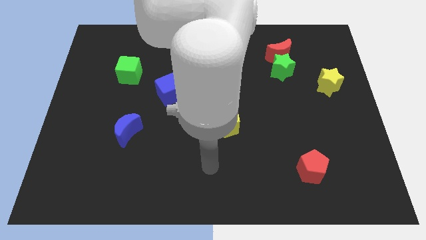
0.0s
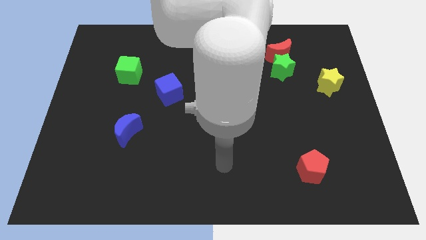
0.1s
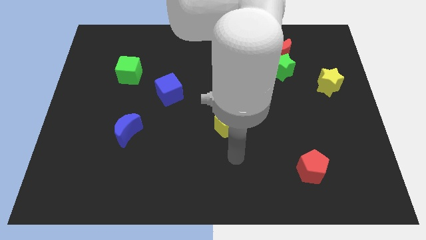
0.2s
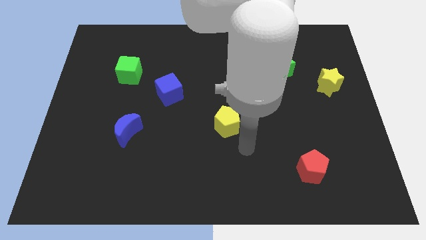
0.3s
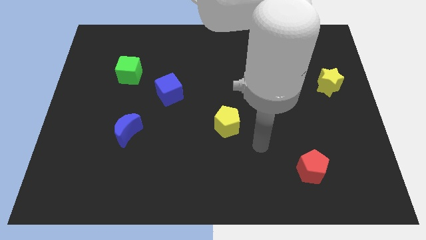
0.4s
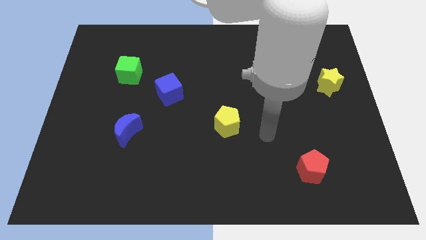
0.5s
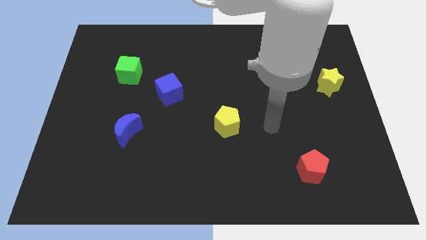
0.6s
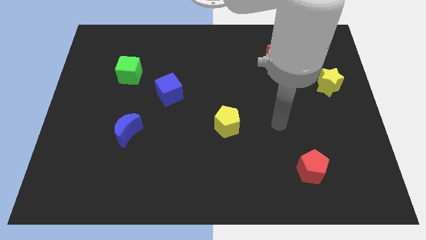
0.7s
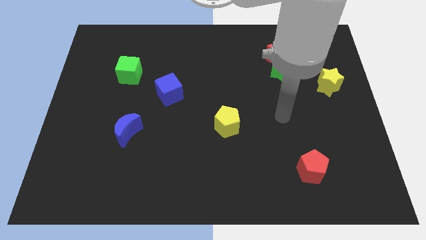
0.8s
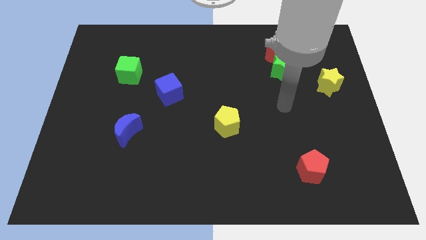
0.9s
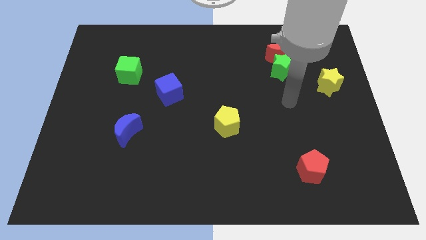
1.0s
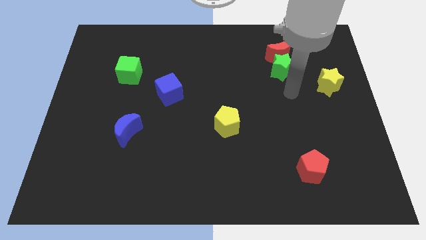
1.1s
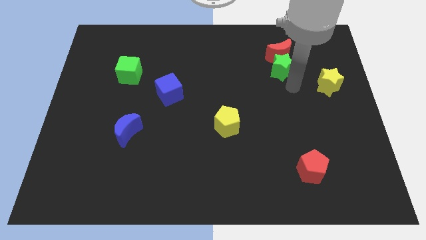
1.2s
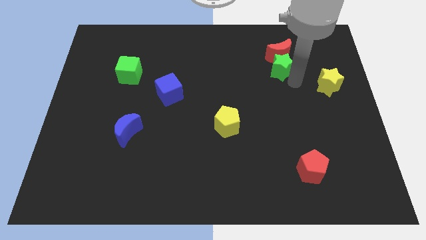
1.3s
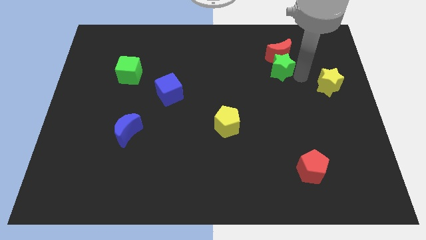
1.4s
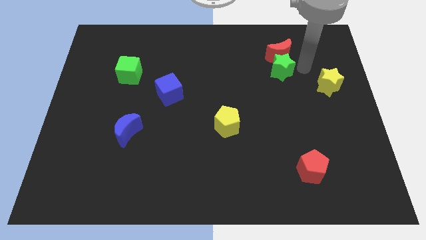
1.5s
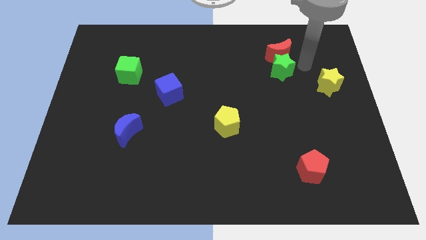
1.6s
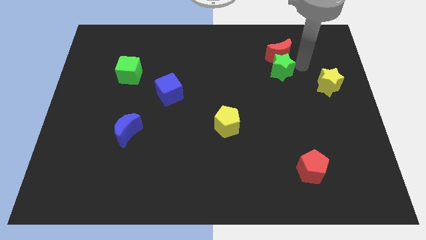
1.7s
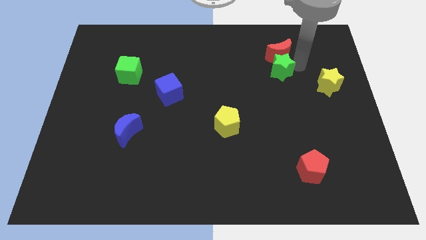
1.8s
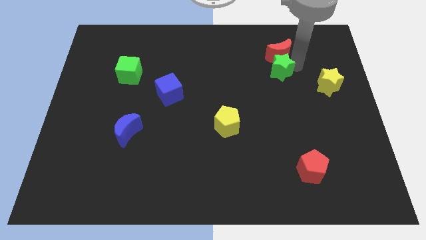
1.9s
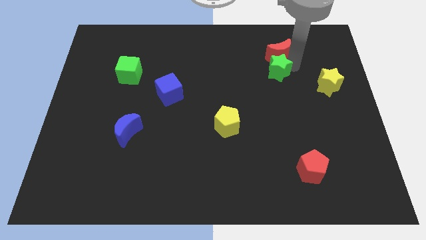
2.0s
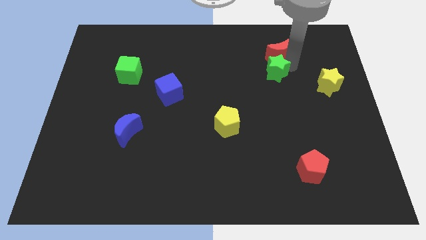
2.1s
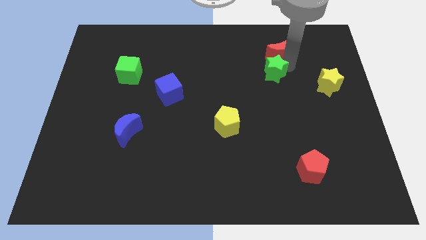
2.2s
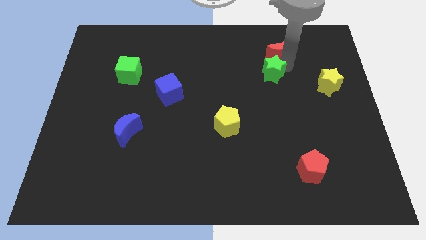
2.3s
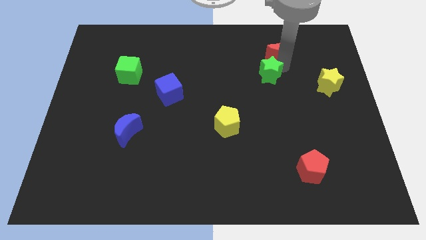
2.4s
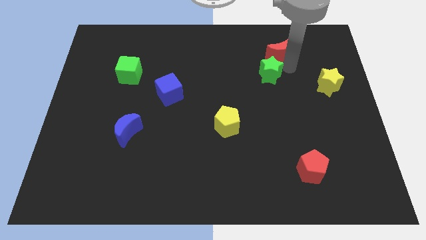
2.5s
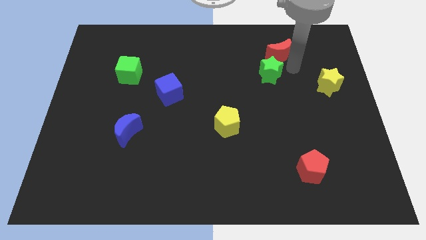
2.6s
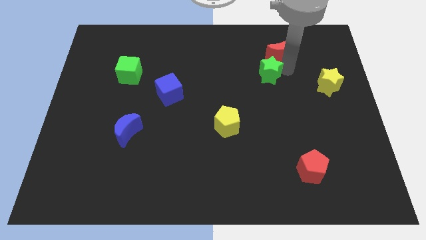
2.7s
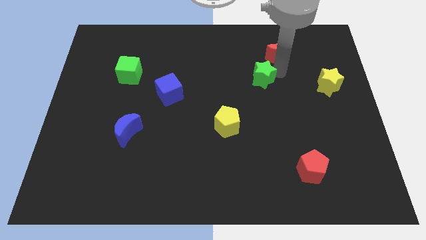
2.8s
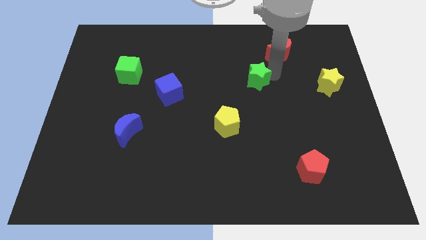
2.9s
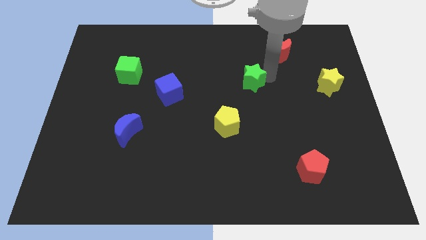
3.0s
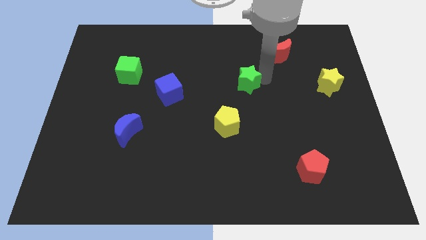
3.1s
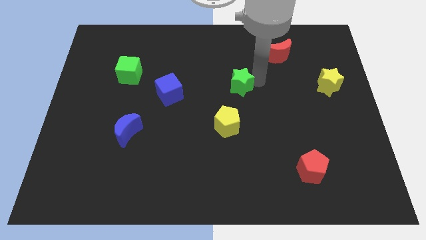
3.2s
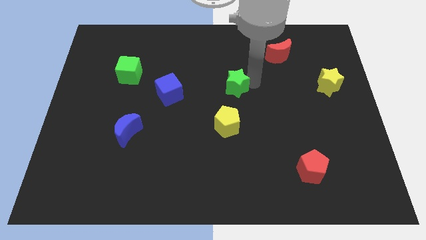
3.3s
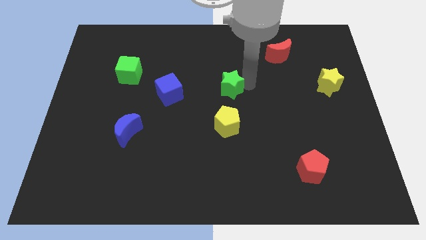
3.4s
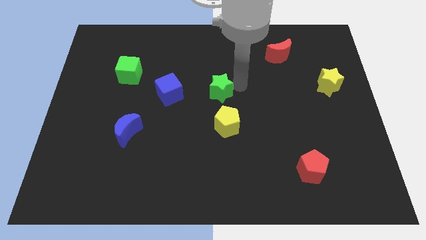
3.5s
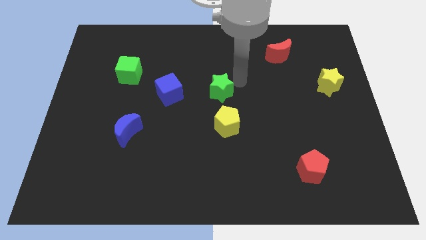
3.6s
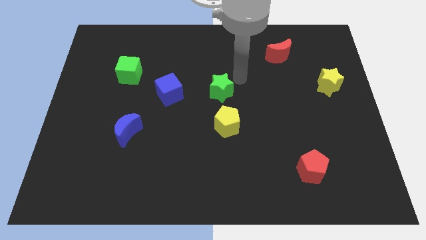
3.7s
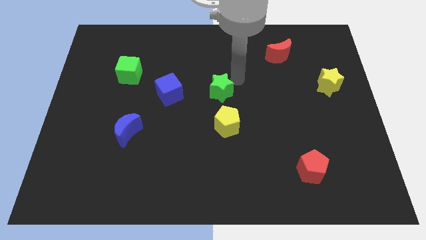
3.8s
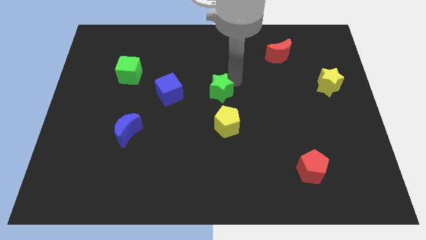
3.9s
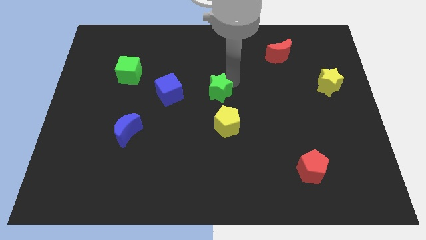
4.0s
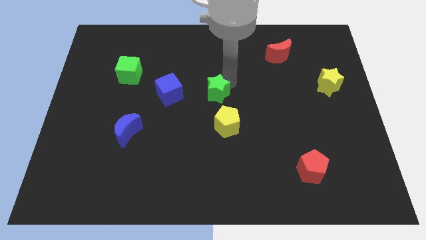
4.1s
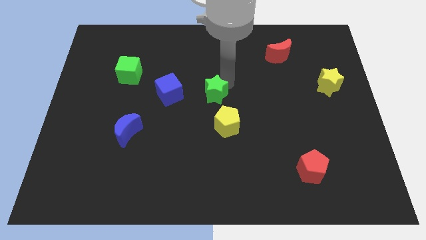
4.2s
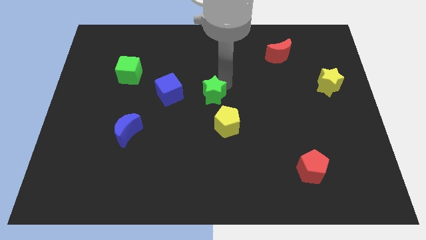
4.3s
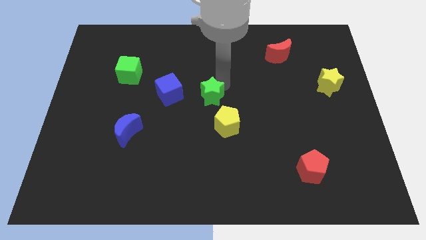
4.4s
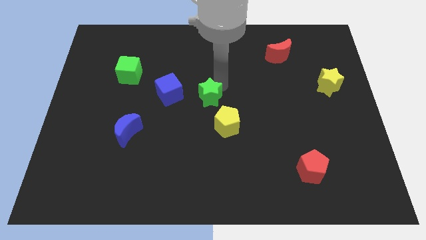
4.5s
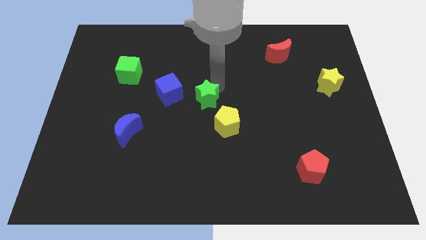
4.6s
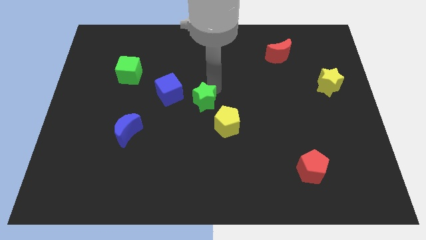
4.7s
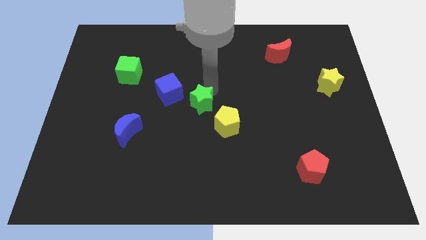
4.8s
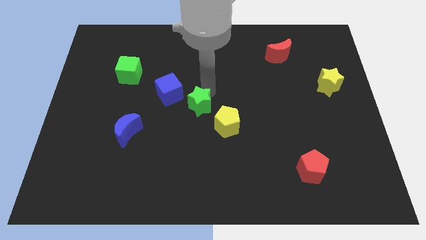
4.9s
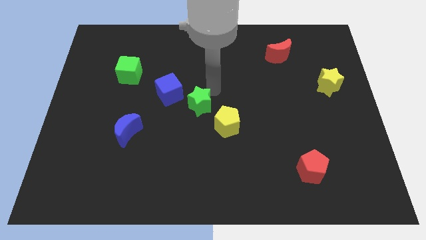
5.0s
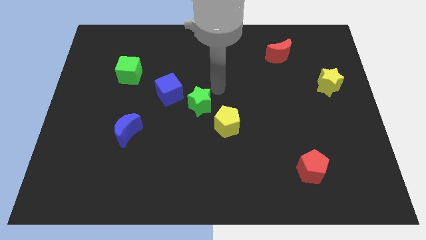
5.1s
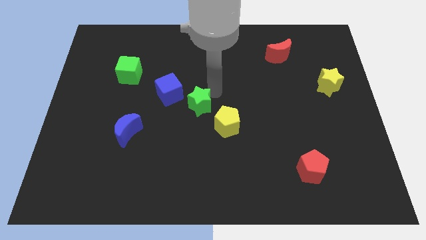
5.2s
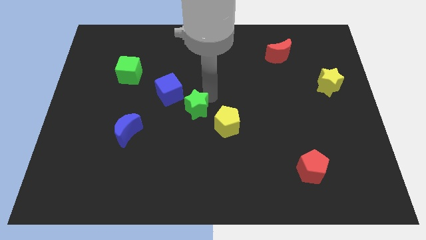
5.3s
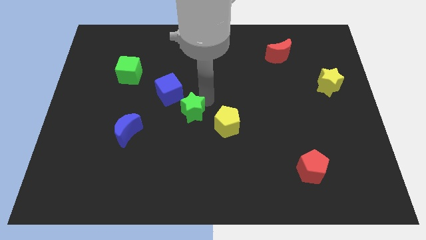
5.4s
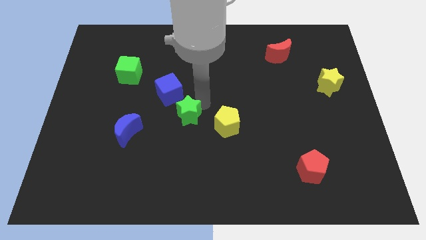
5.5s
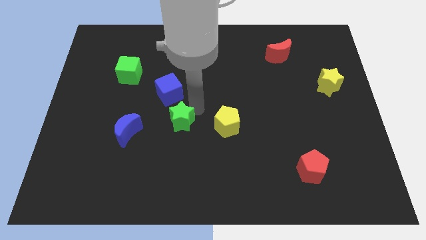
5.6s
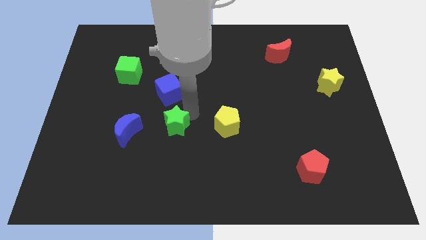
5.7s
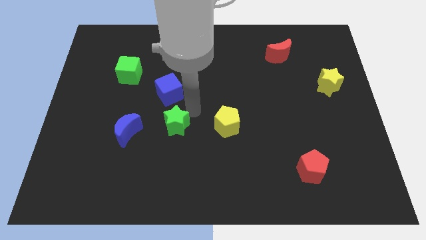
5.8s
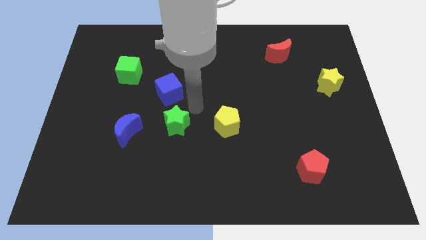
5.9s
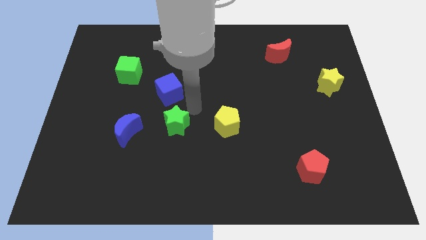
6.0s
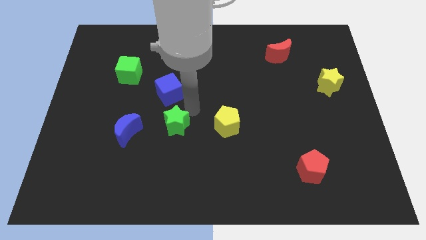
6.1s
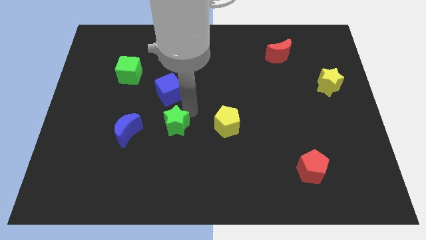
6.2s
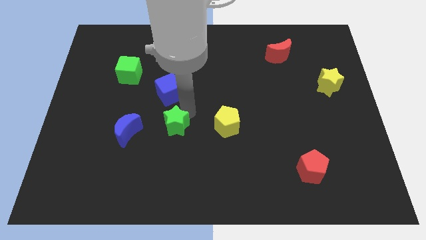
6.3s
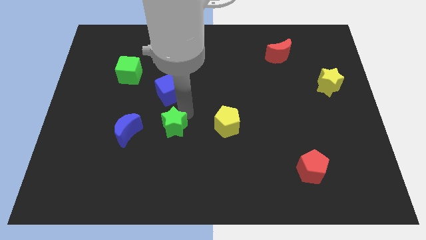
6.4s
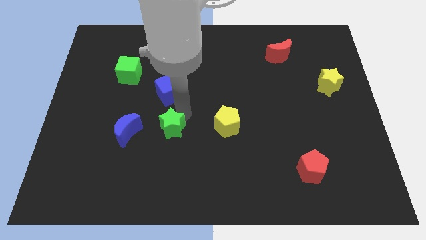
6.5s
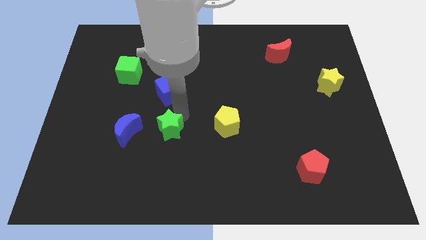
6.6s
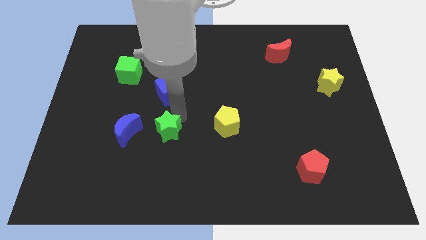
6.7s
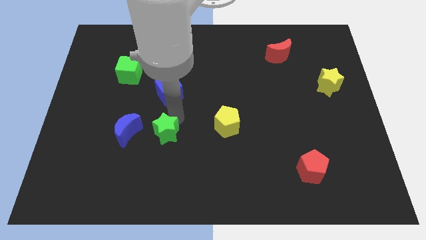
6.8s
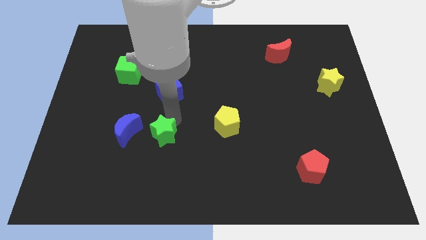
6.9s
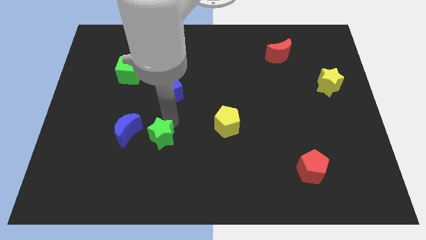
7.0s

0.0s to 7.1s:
put the green star to the bottom right of the blue moon
